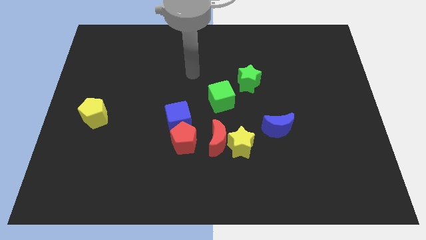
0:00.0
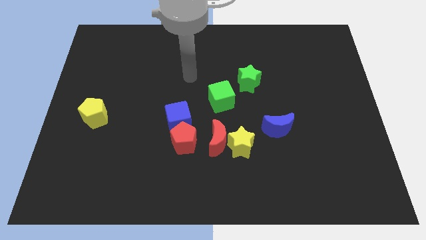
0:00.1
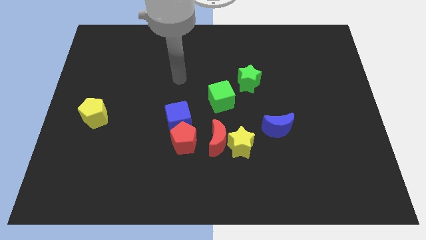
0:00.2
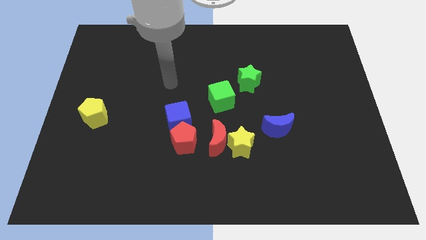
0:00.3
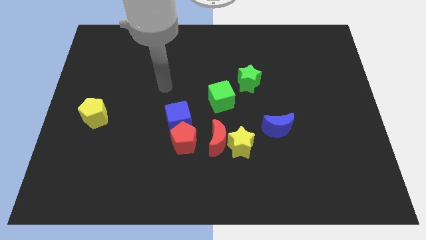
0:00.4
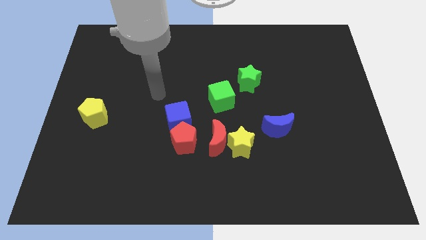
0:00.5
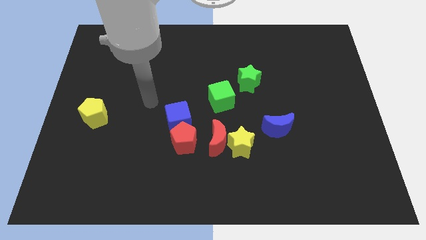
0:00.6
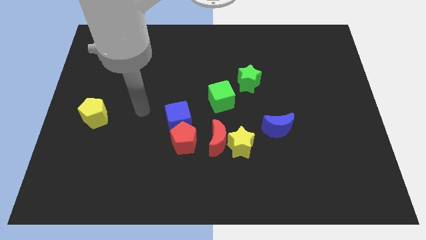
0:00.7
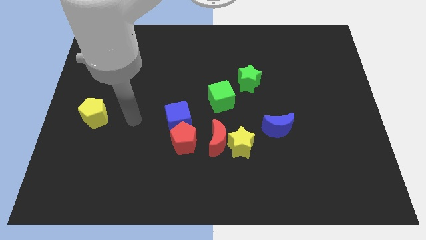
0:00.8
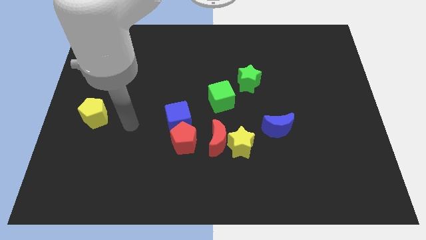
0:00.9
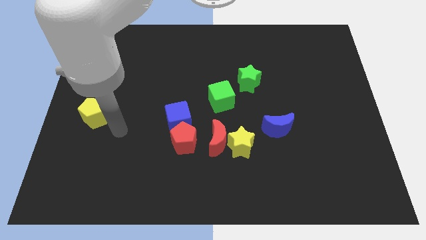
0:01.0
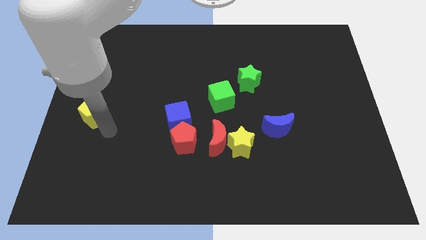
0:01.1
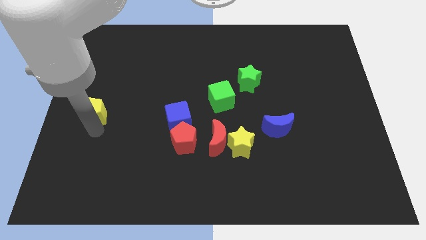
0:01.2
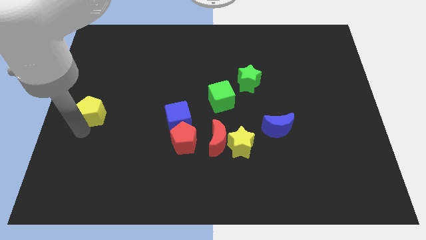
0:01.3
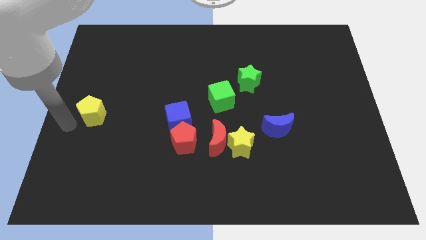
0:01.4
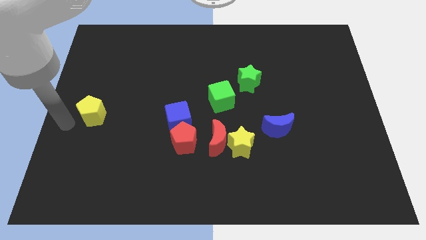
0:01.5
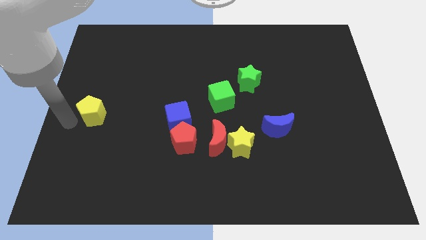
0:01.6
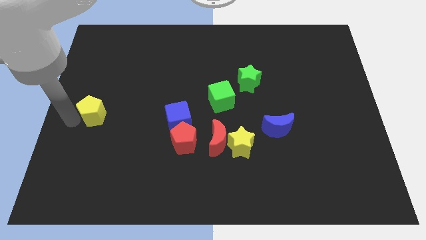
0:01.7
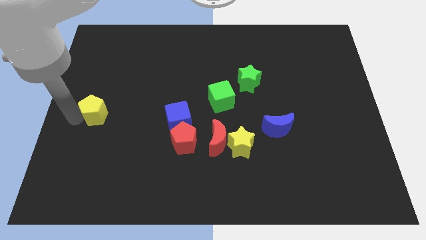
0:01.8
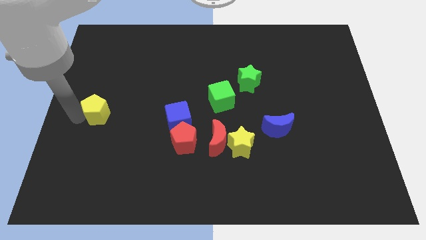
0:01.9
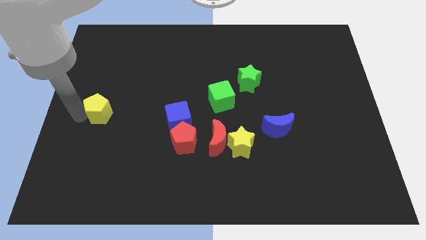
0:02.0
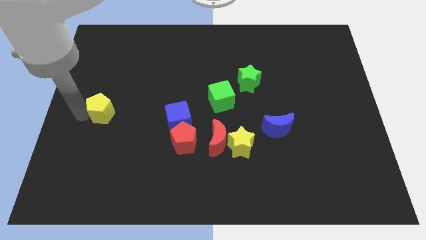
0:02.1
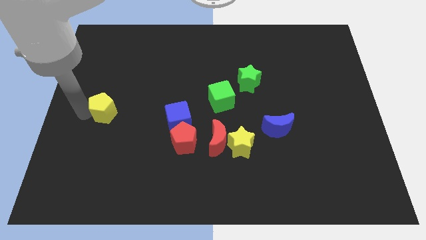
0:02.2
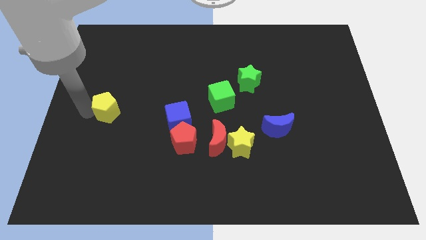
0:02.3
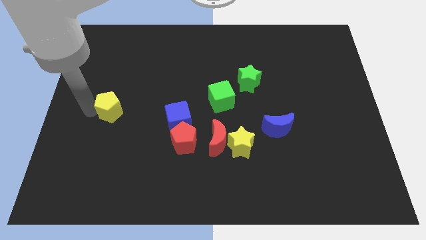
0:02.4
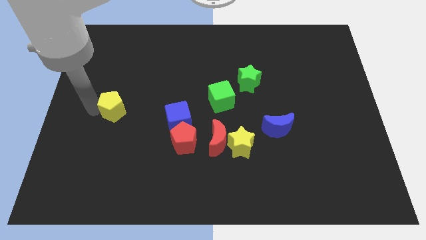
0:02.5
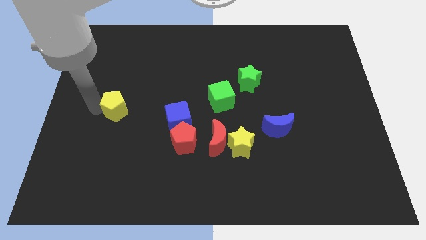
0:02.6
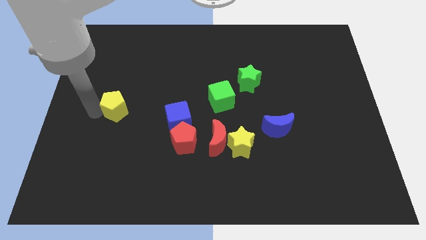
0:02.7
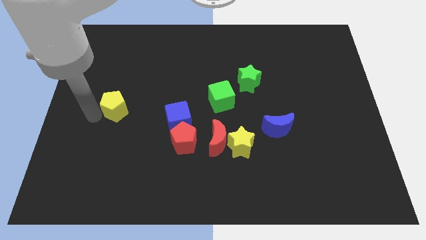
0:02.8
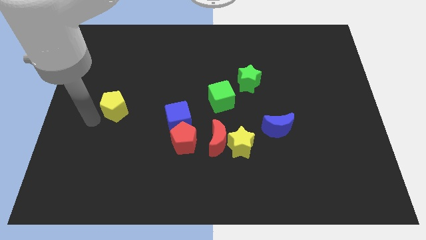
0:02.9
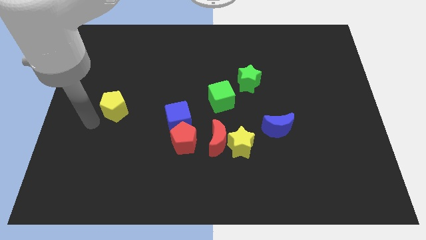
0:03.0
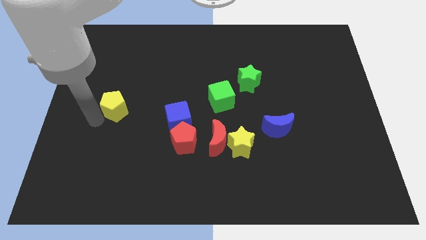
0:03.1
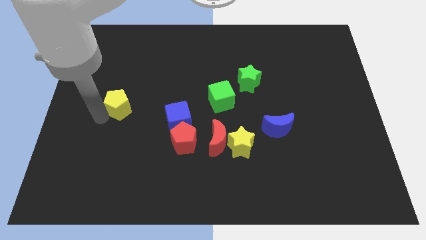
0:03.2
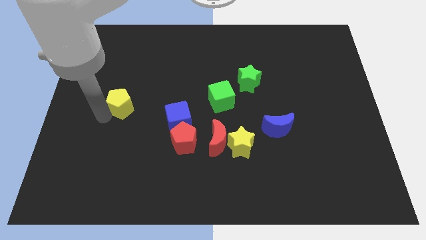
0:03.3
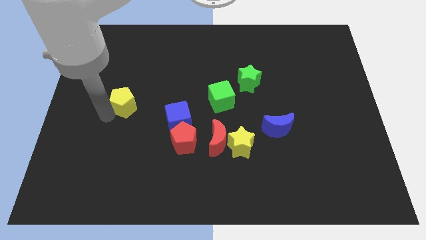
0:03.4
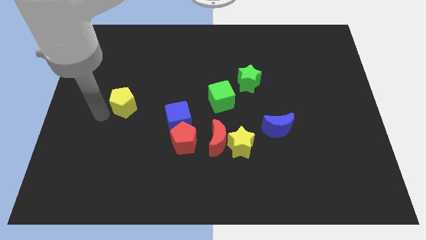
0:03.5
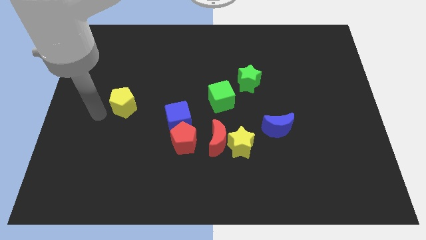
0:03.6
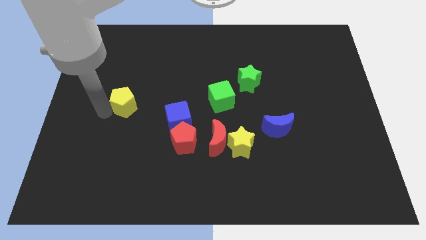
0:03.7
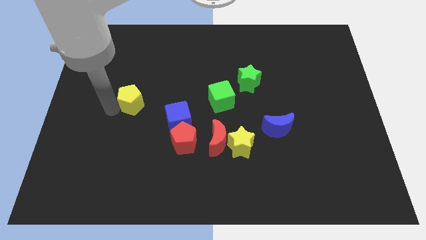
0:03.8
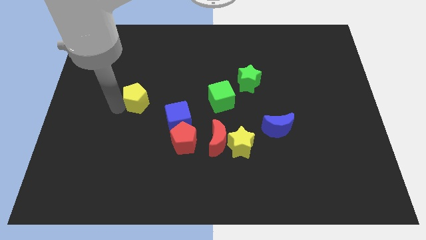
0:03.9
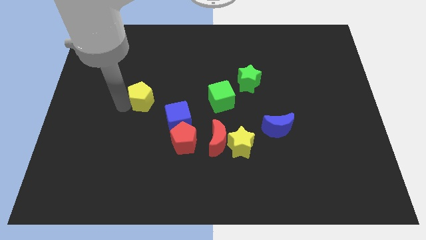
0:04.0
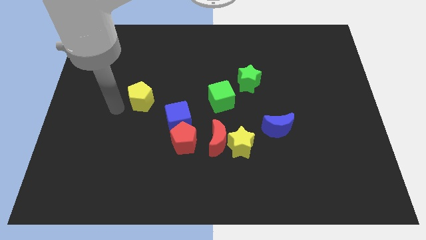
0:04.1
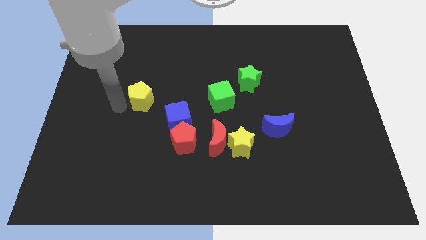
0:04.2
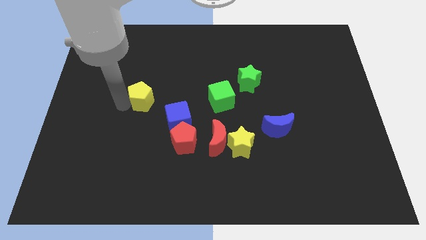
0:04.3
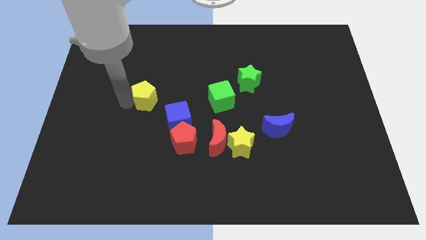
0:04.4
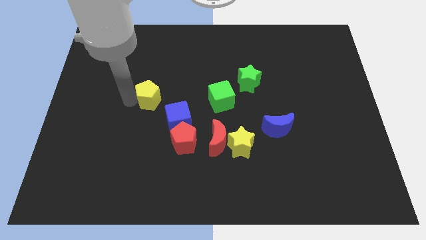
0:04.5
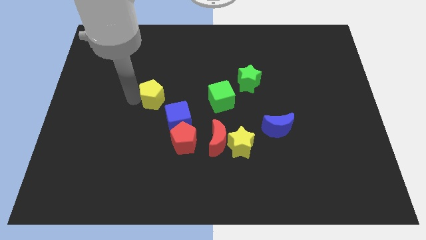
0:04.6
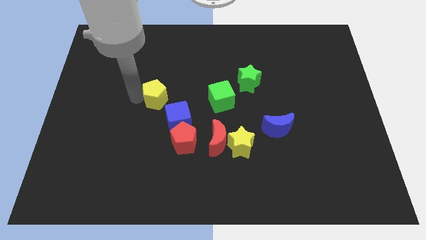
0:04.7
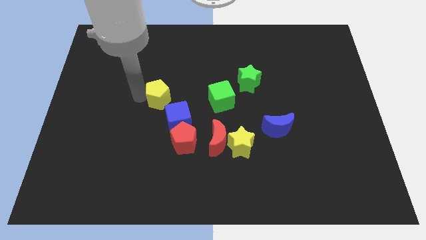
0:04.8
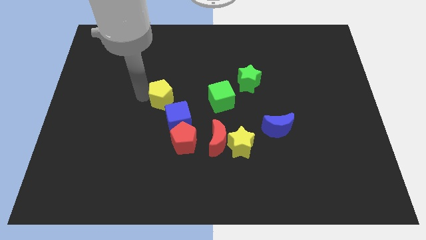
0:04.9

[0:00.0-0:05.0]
push the yellow pentagon to the top of the blue cube

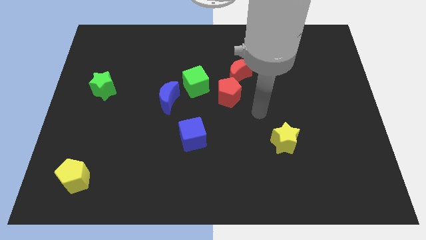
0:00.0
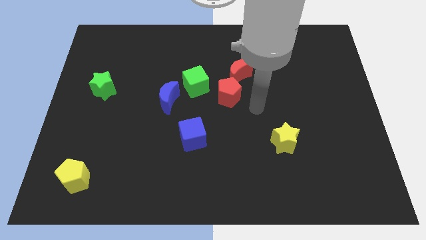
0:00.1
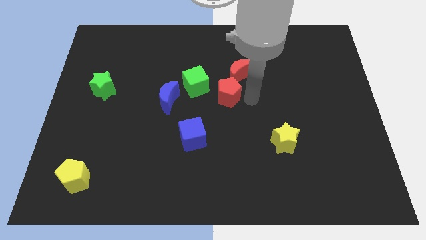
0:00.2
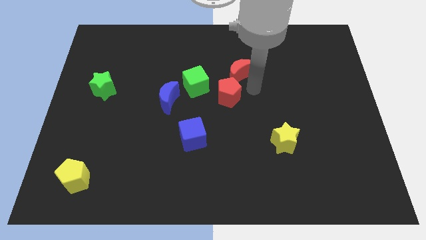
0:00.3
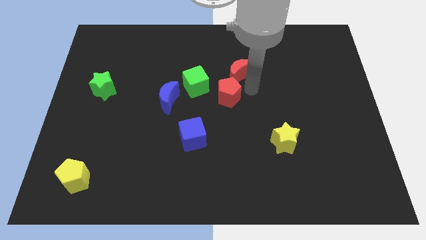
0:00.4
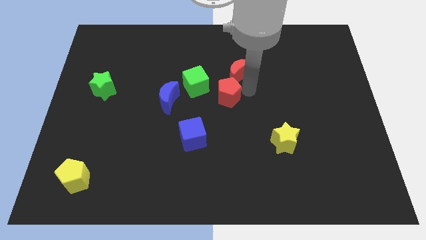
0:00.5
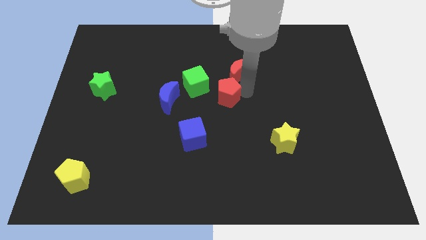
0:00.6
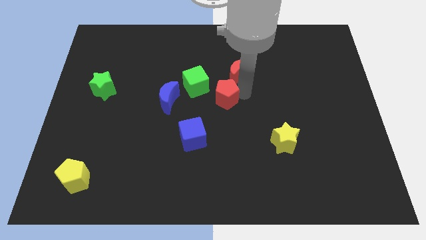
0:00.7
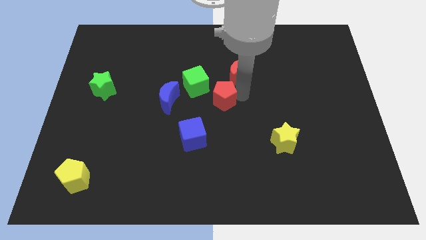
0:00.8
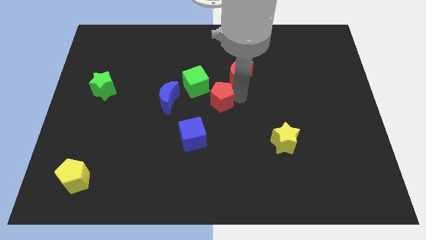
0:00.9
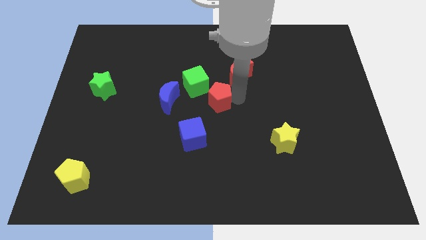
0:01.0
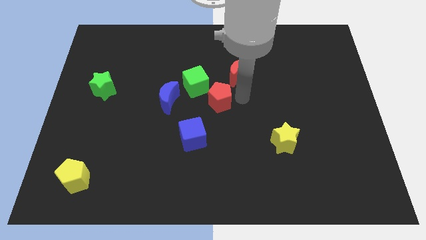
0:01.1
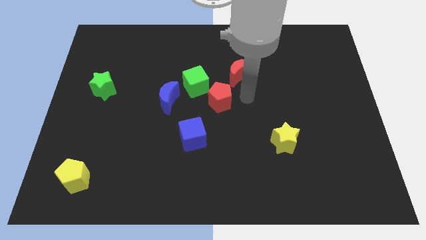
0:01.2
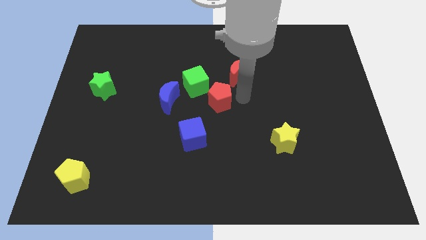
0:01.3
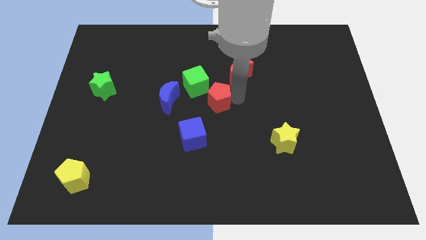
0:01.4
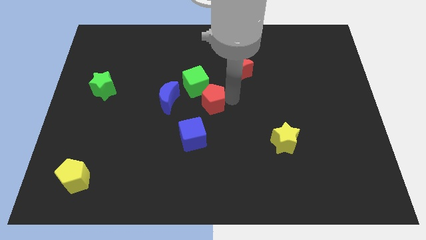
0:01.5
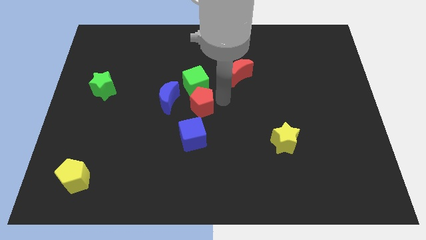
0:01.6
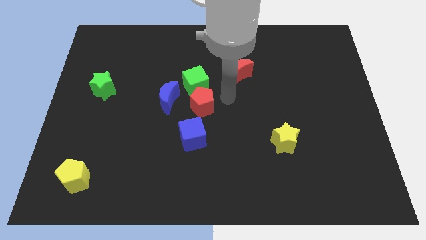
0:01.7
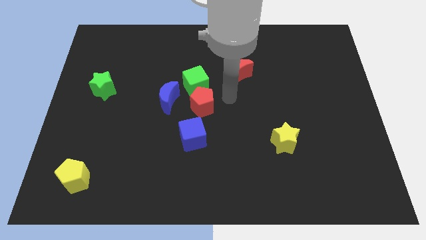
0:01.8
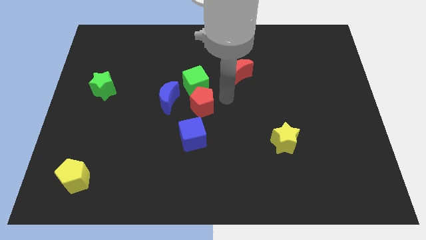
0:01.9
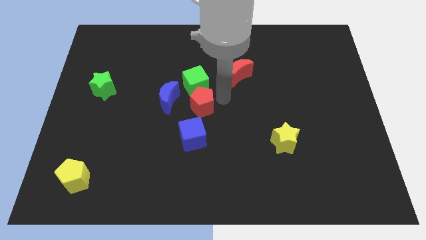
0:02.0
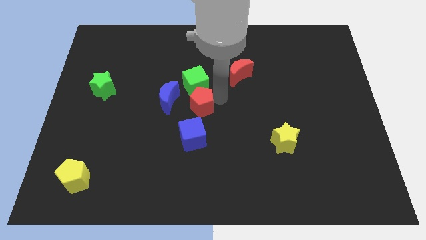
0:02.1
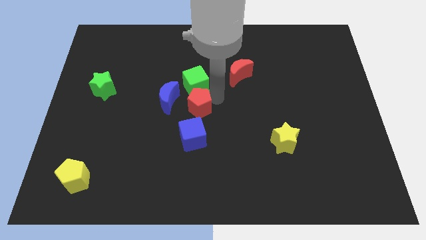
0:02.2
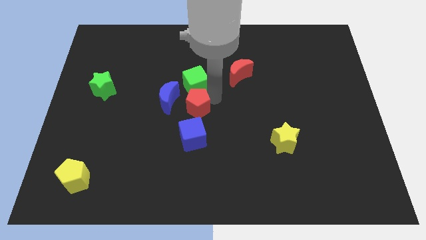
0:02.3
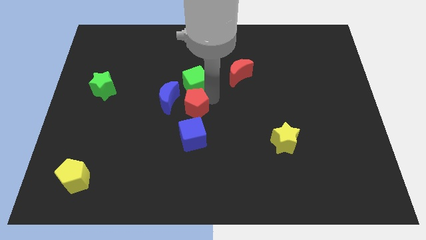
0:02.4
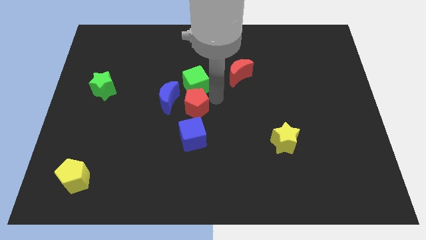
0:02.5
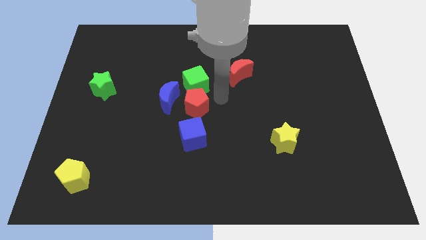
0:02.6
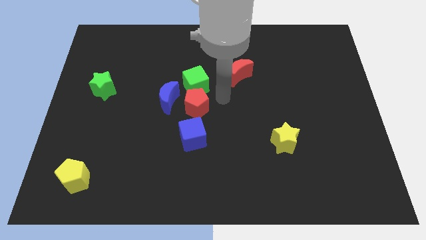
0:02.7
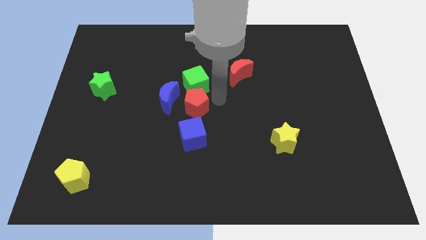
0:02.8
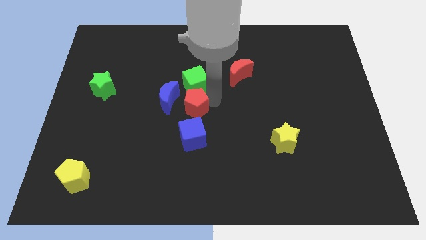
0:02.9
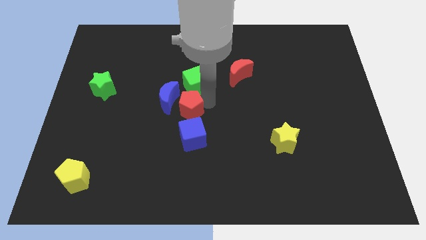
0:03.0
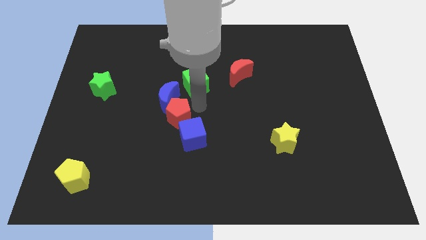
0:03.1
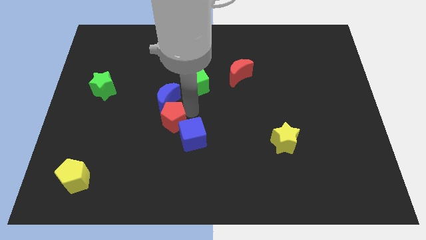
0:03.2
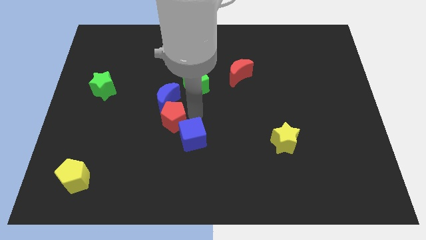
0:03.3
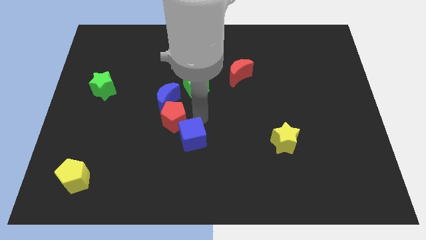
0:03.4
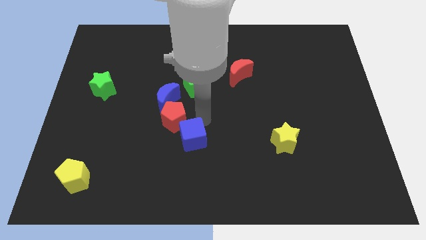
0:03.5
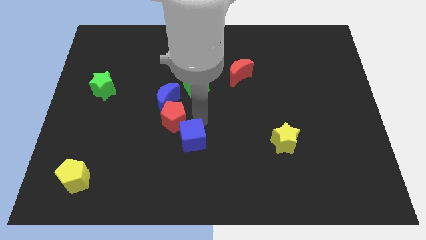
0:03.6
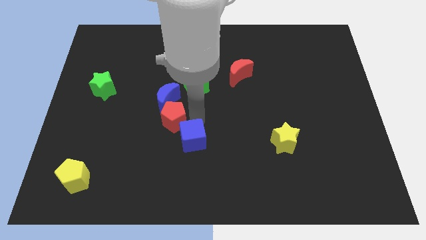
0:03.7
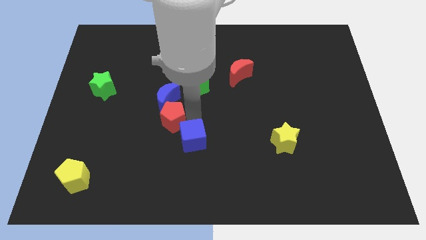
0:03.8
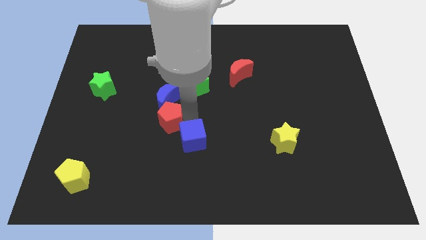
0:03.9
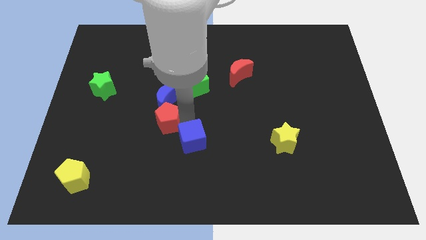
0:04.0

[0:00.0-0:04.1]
slide the red pentagon to the bottom left side of the blue moon
